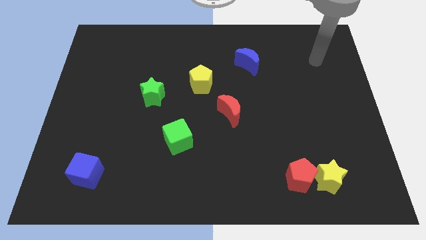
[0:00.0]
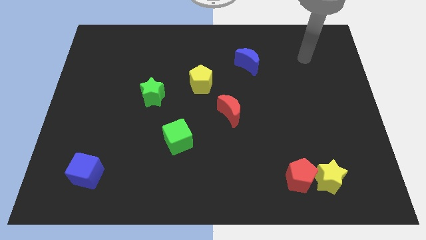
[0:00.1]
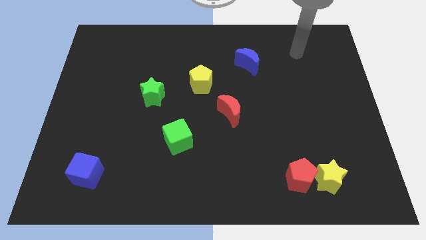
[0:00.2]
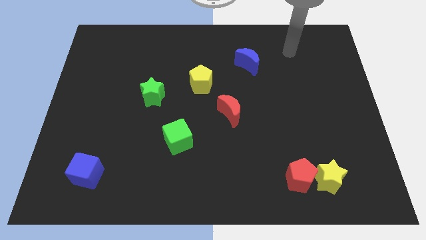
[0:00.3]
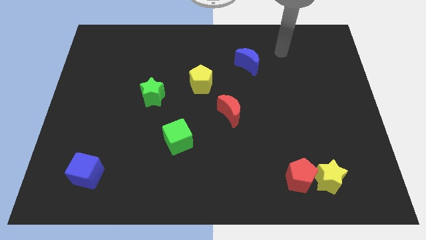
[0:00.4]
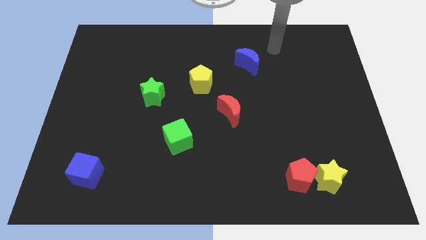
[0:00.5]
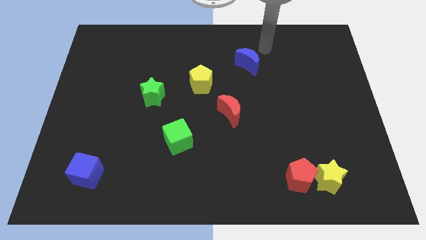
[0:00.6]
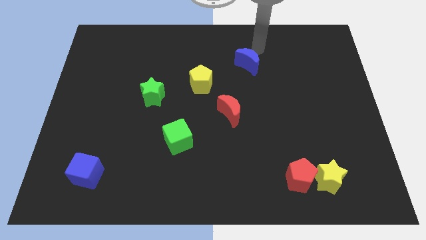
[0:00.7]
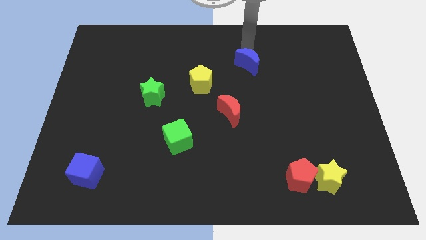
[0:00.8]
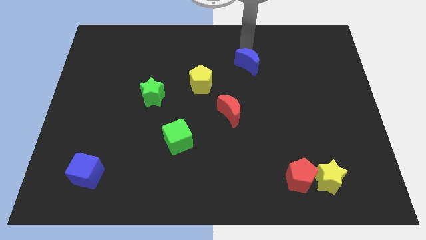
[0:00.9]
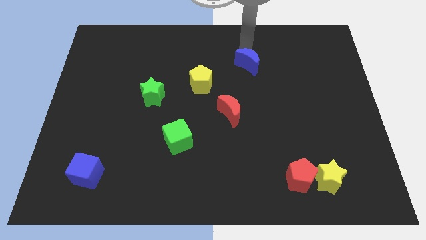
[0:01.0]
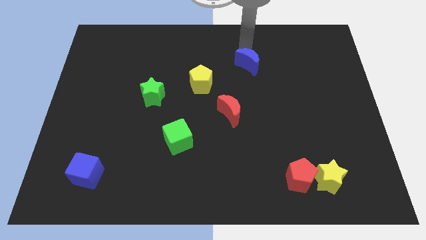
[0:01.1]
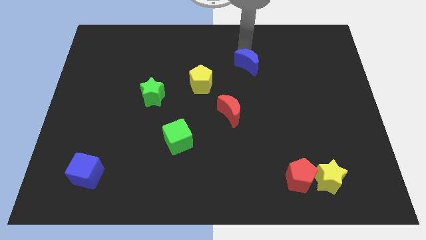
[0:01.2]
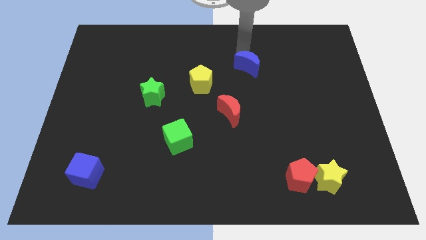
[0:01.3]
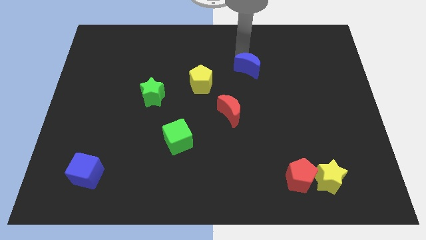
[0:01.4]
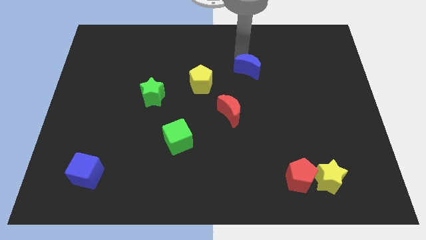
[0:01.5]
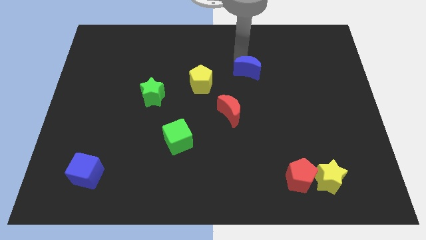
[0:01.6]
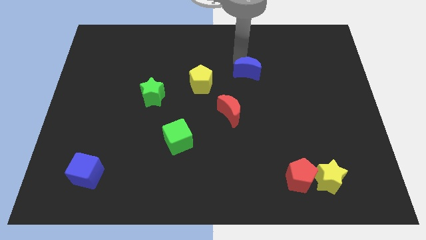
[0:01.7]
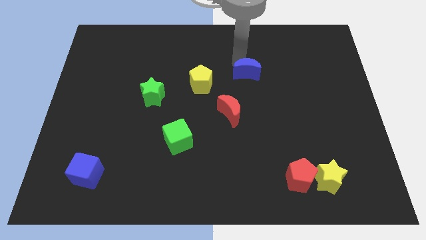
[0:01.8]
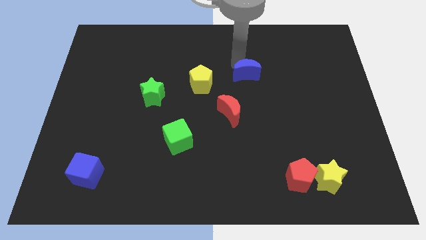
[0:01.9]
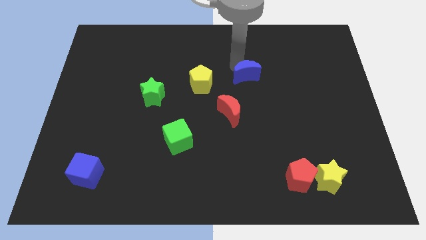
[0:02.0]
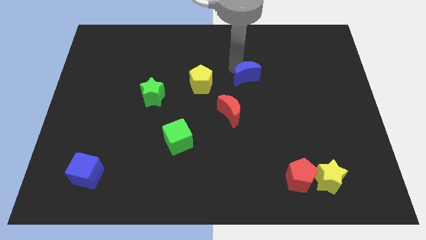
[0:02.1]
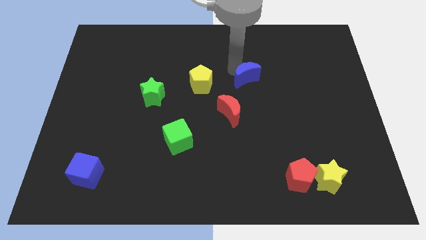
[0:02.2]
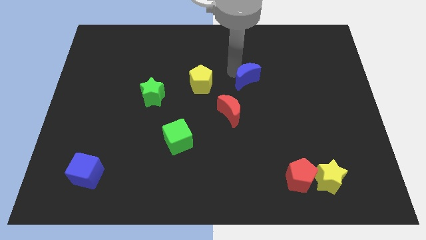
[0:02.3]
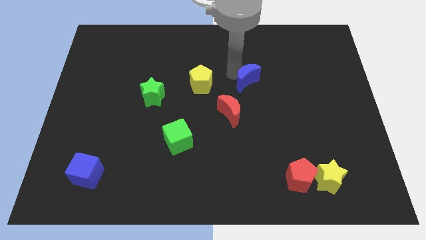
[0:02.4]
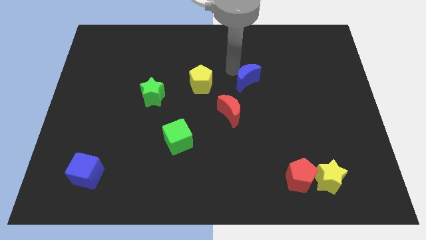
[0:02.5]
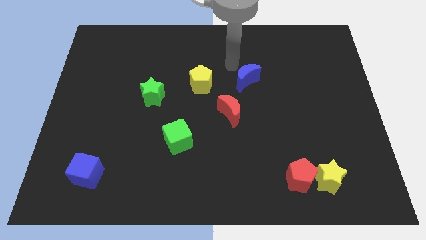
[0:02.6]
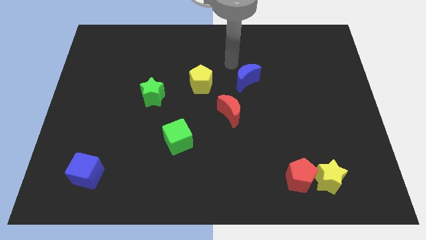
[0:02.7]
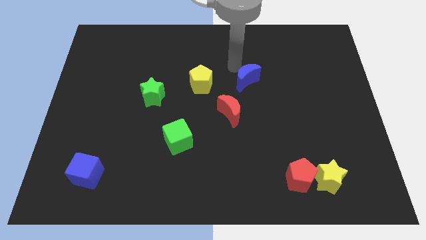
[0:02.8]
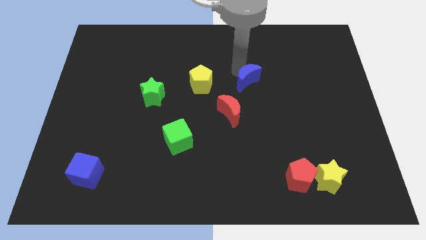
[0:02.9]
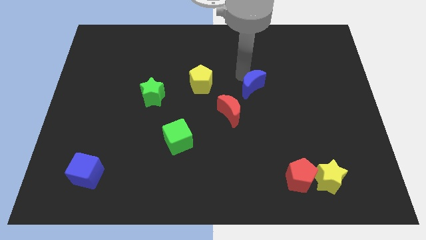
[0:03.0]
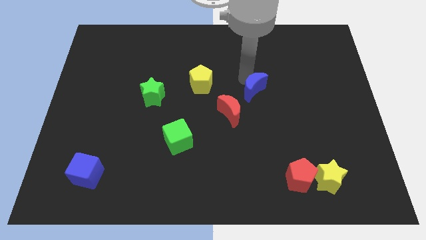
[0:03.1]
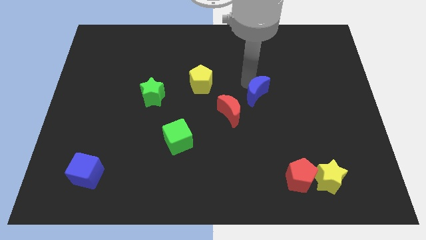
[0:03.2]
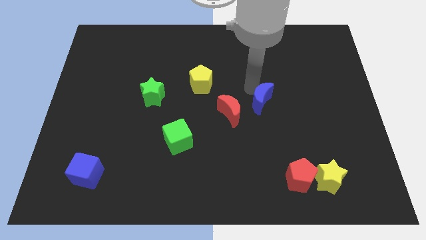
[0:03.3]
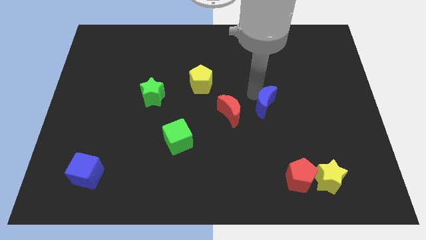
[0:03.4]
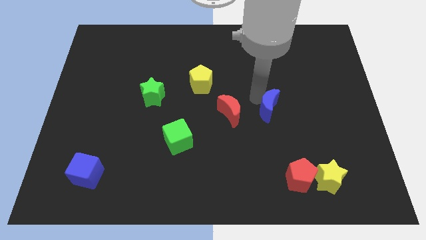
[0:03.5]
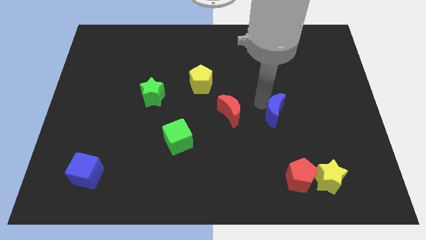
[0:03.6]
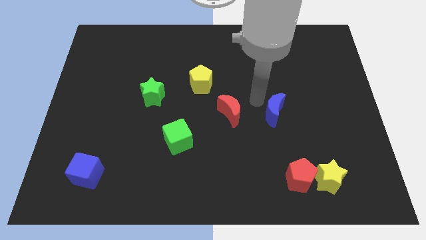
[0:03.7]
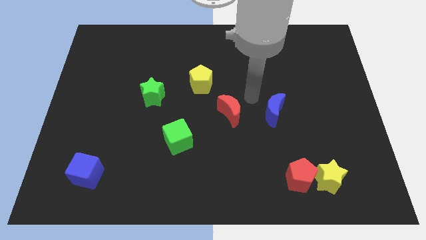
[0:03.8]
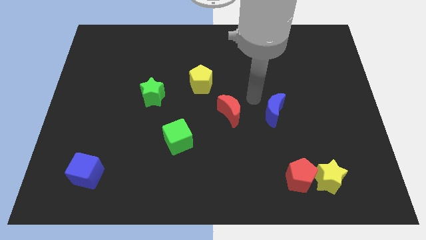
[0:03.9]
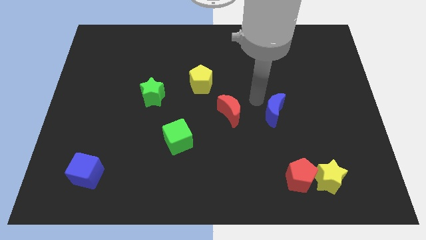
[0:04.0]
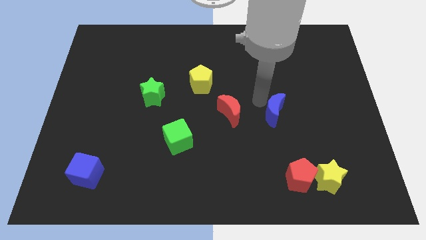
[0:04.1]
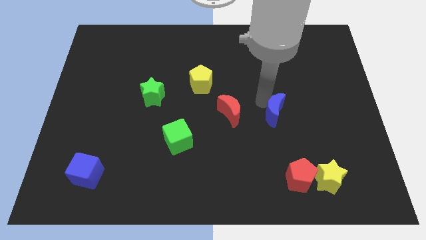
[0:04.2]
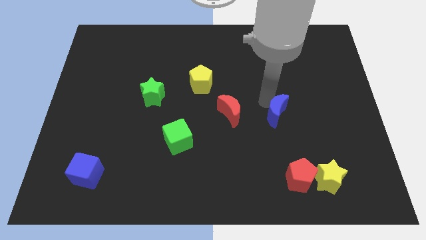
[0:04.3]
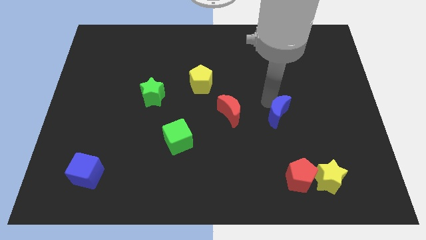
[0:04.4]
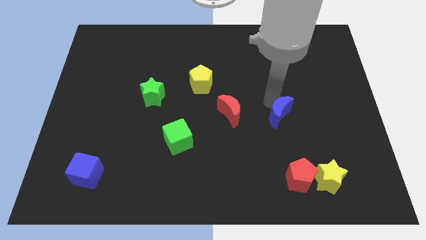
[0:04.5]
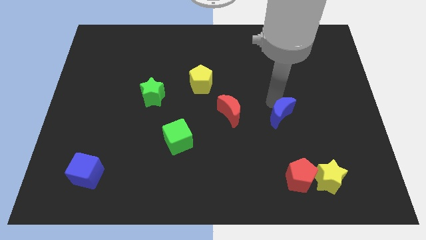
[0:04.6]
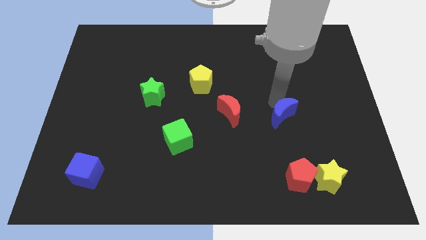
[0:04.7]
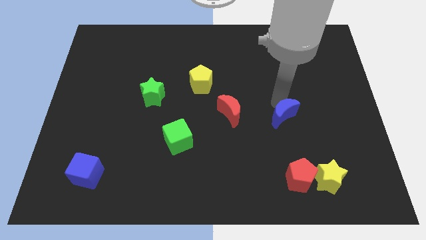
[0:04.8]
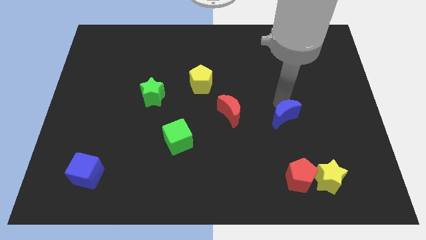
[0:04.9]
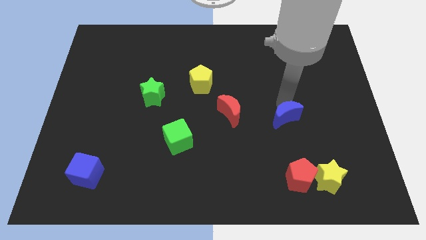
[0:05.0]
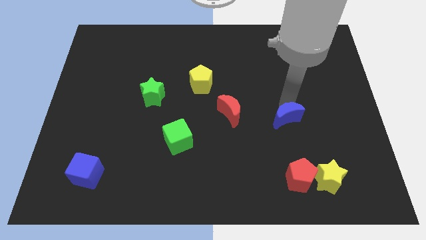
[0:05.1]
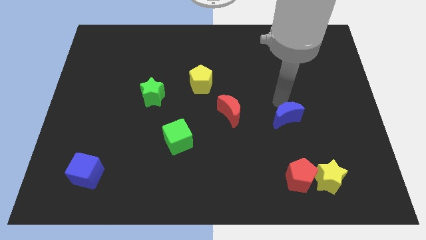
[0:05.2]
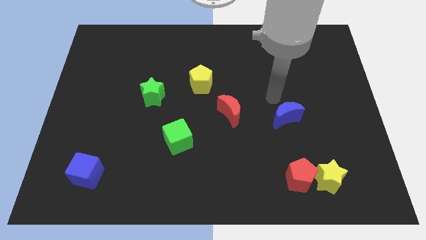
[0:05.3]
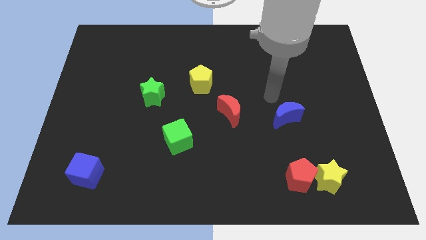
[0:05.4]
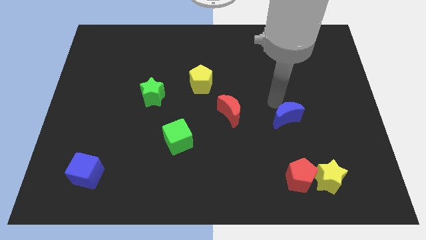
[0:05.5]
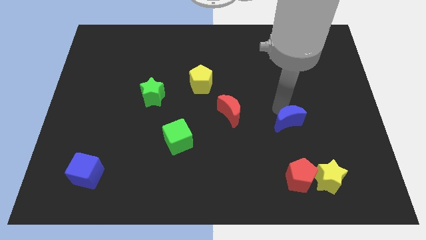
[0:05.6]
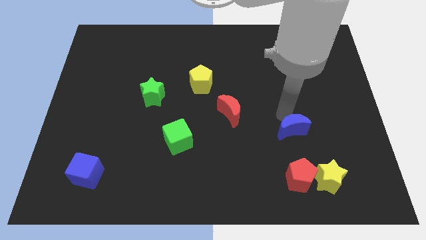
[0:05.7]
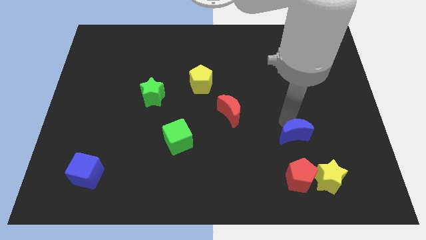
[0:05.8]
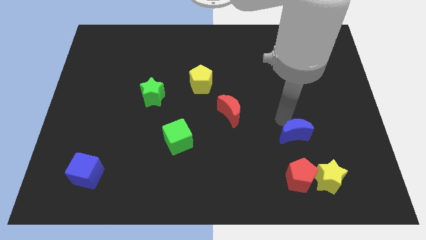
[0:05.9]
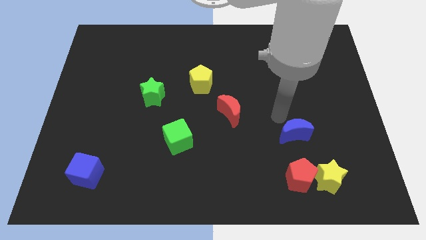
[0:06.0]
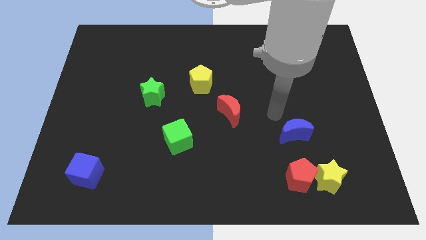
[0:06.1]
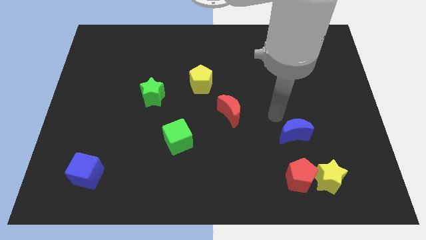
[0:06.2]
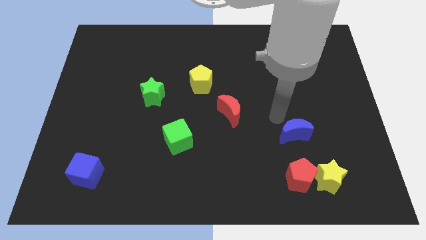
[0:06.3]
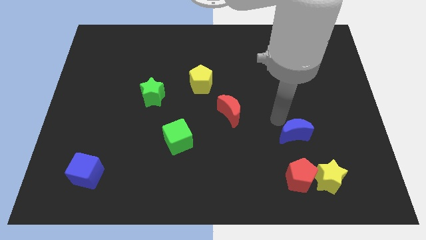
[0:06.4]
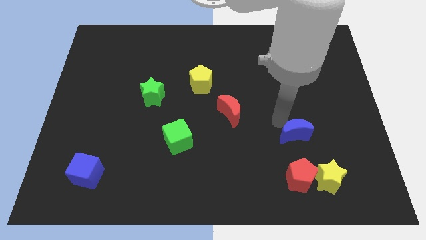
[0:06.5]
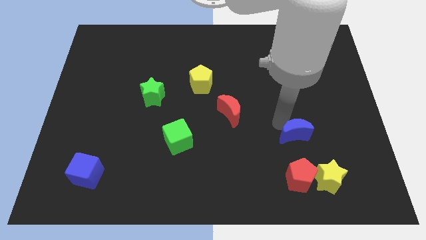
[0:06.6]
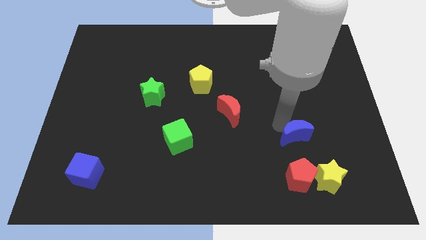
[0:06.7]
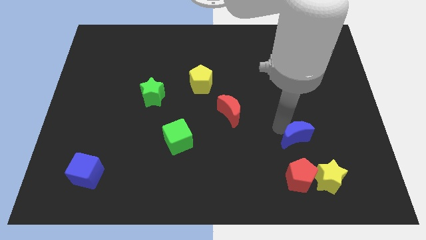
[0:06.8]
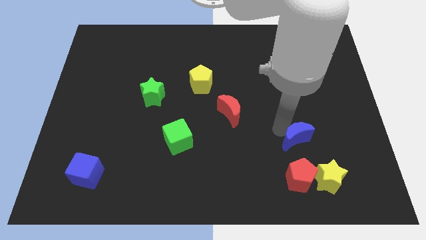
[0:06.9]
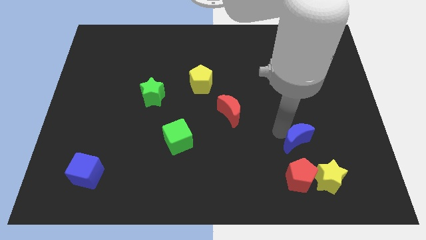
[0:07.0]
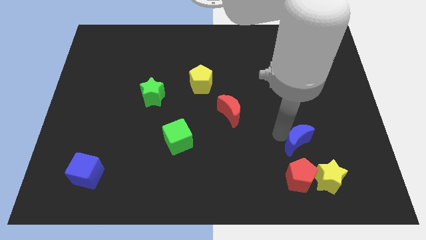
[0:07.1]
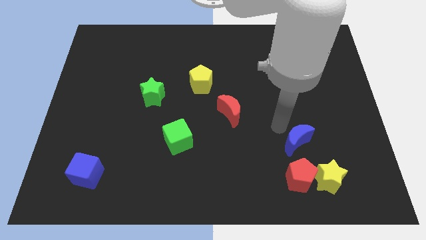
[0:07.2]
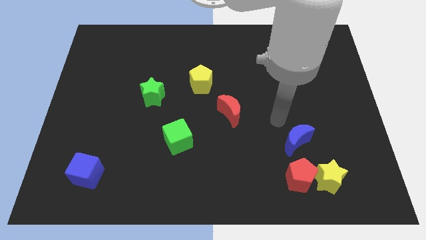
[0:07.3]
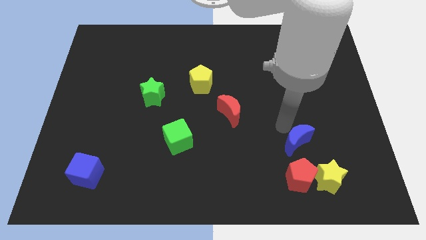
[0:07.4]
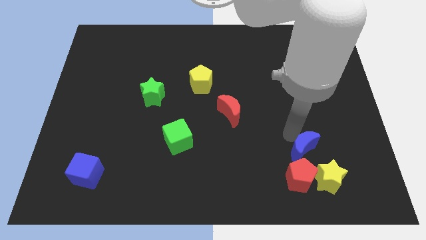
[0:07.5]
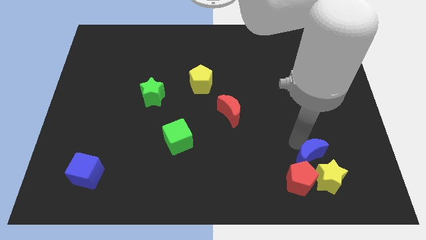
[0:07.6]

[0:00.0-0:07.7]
move the blue moon next to the yellow star

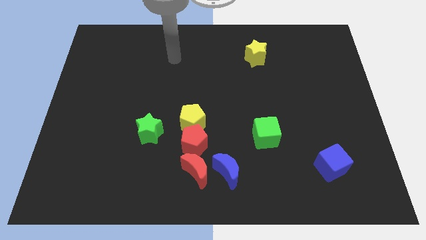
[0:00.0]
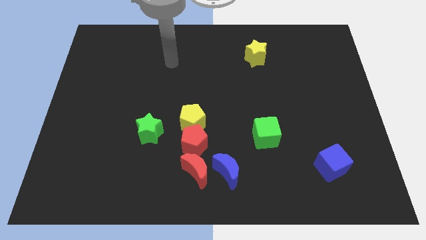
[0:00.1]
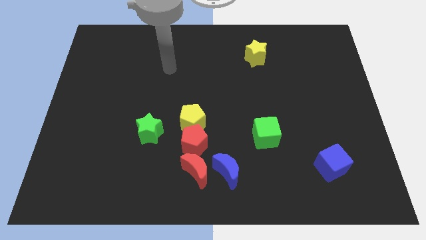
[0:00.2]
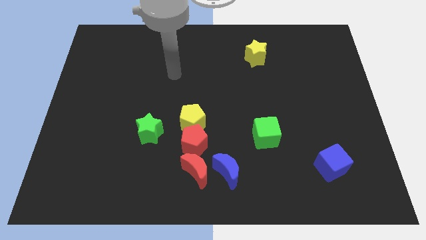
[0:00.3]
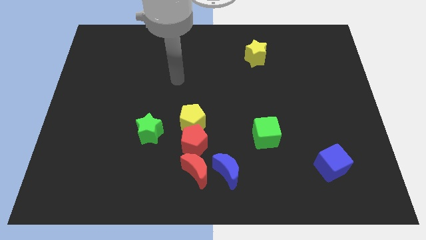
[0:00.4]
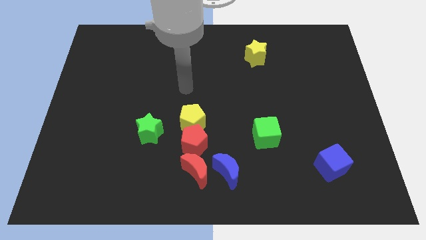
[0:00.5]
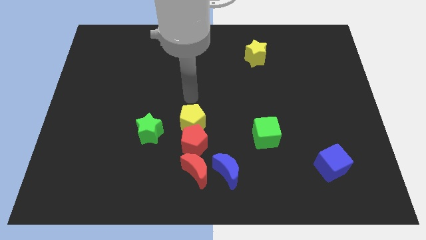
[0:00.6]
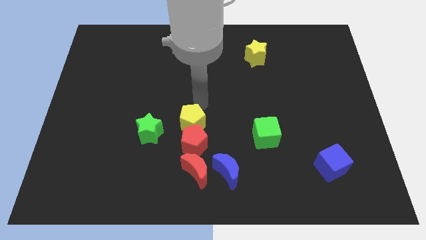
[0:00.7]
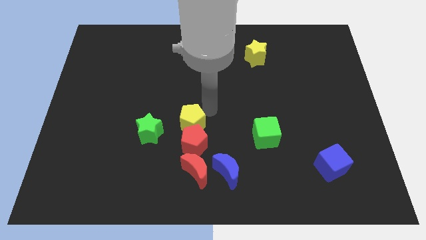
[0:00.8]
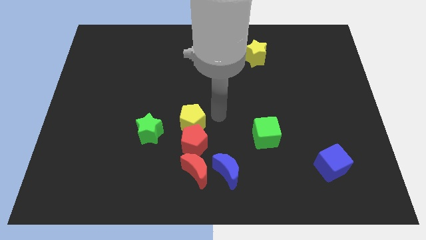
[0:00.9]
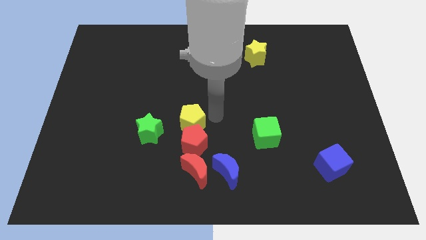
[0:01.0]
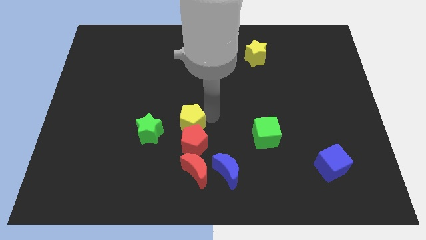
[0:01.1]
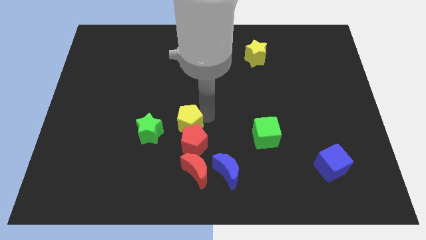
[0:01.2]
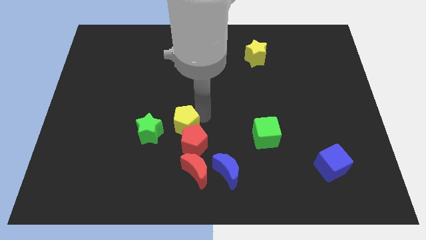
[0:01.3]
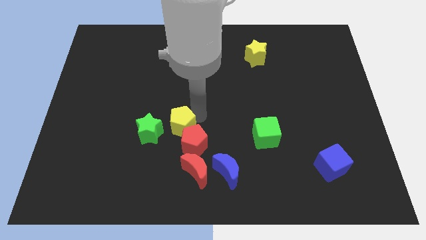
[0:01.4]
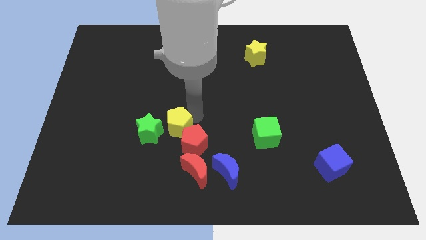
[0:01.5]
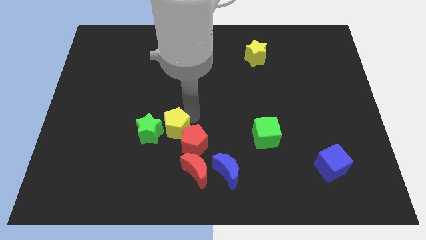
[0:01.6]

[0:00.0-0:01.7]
move the yellow pentagon close to the green star
